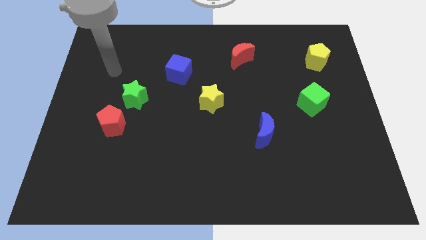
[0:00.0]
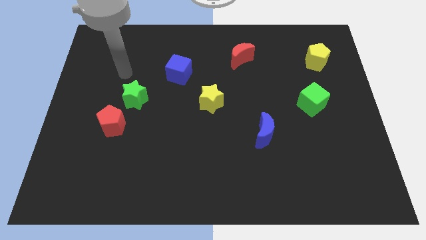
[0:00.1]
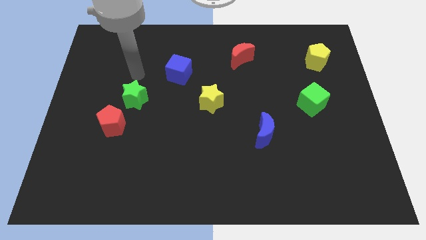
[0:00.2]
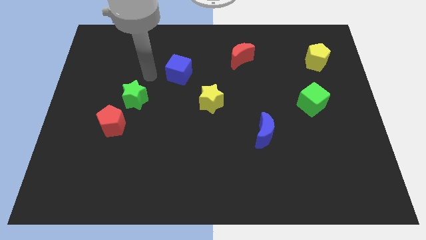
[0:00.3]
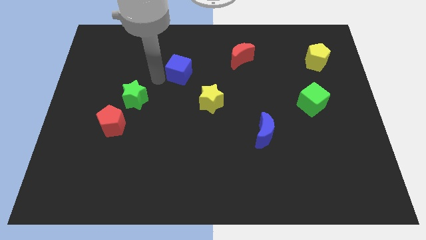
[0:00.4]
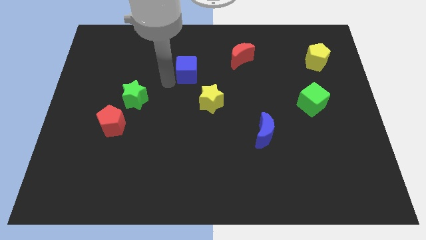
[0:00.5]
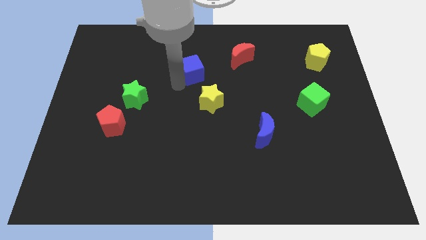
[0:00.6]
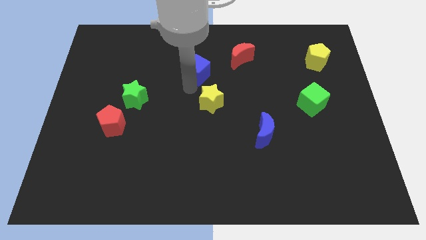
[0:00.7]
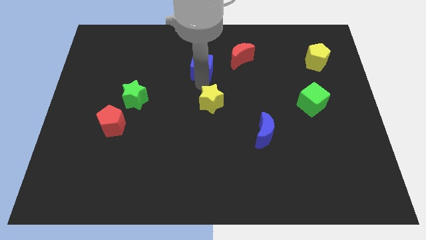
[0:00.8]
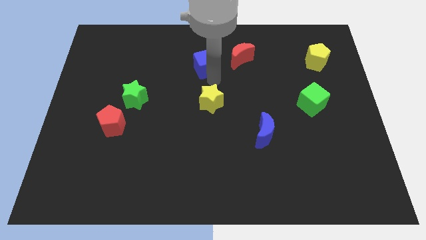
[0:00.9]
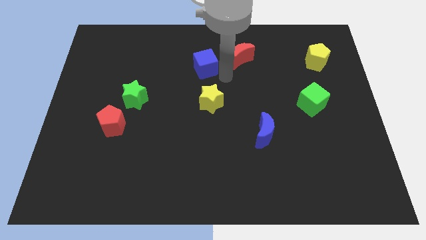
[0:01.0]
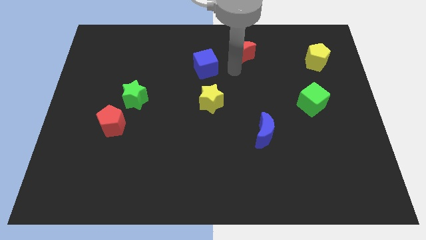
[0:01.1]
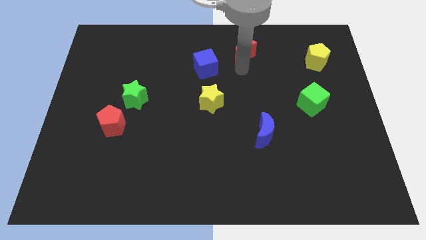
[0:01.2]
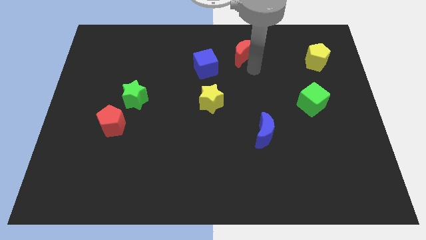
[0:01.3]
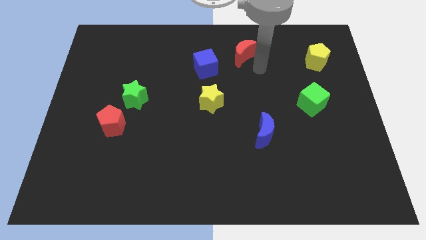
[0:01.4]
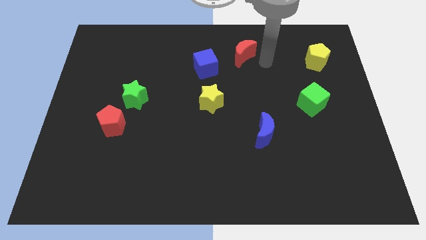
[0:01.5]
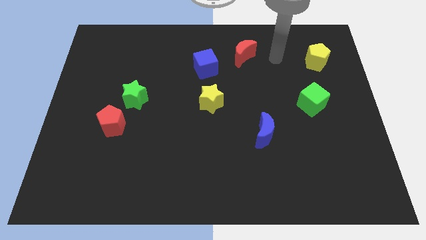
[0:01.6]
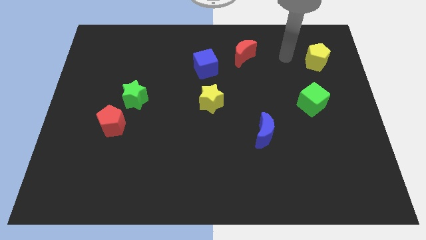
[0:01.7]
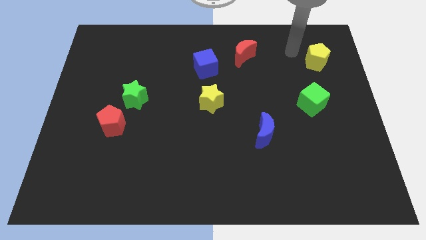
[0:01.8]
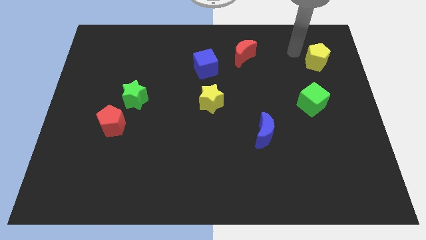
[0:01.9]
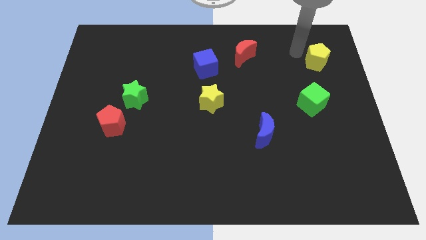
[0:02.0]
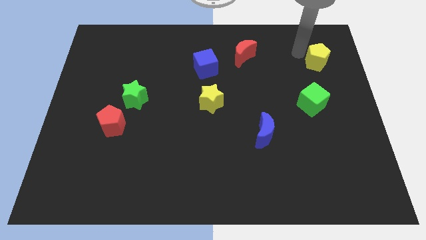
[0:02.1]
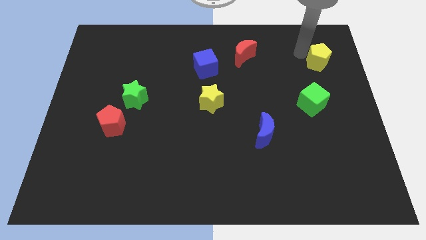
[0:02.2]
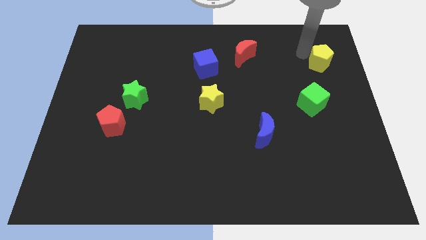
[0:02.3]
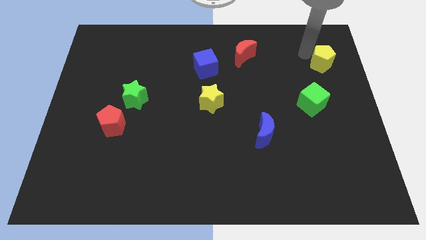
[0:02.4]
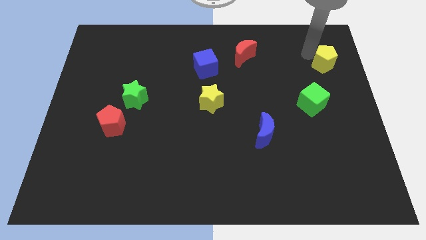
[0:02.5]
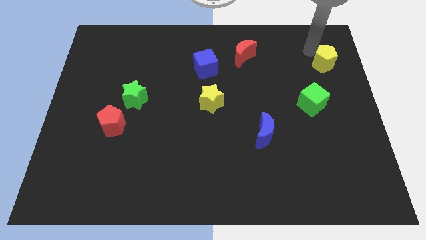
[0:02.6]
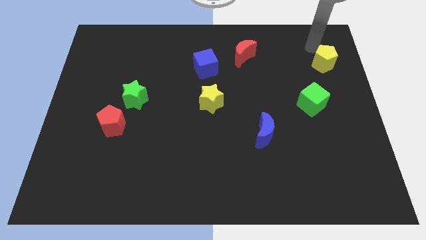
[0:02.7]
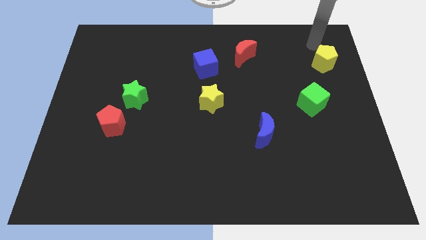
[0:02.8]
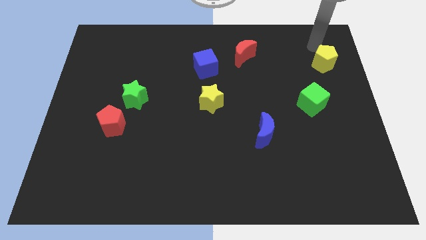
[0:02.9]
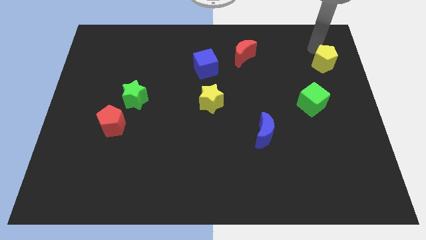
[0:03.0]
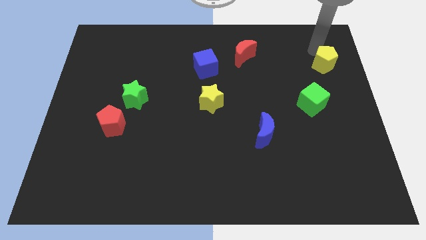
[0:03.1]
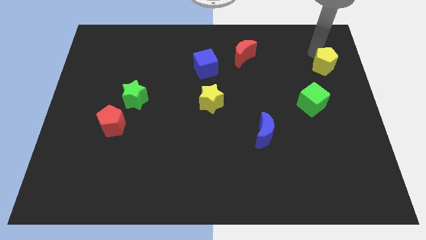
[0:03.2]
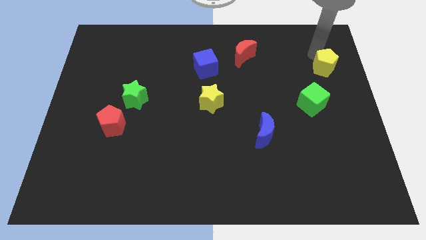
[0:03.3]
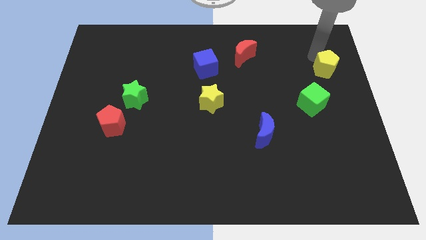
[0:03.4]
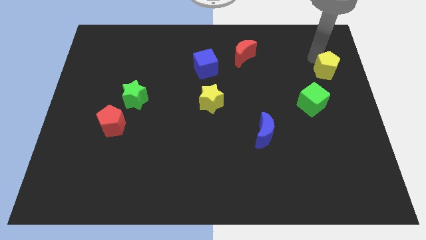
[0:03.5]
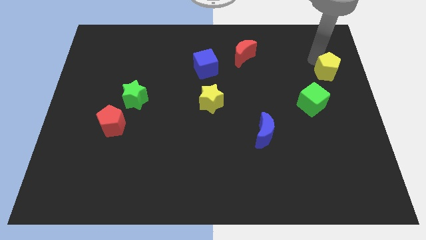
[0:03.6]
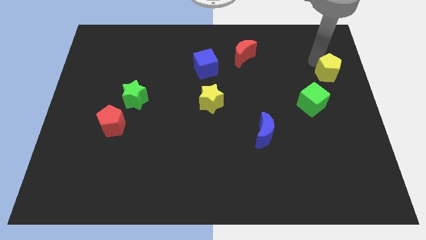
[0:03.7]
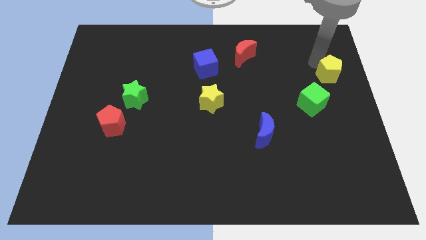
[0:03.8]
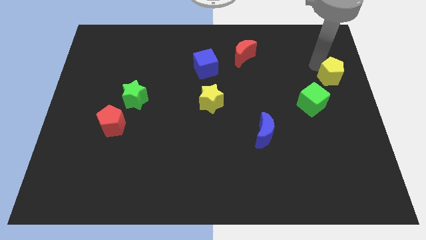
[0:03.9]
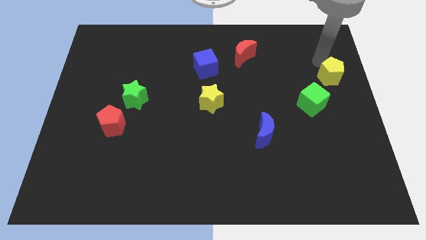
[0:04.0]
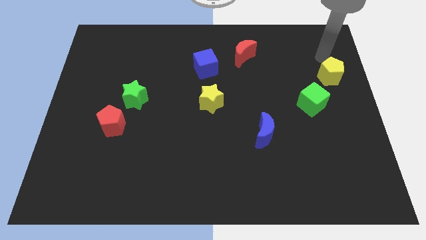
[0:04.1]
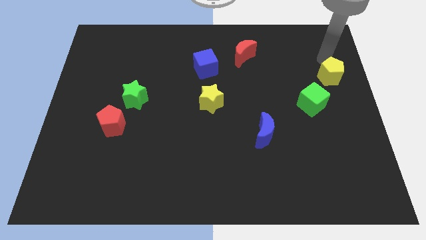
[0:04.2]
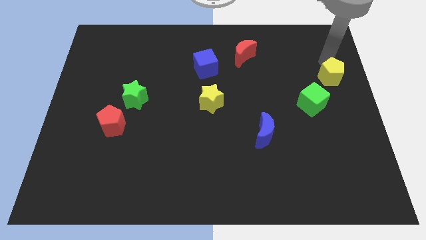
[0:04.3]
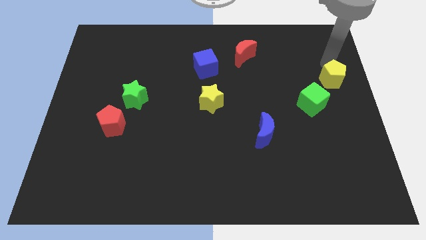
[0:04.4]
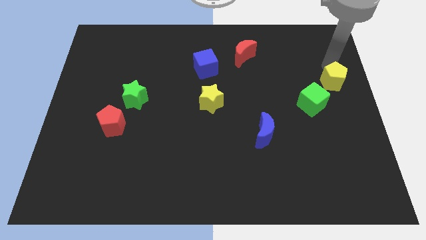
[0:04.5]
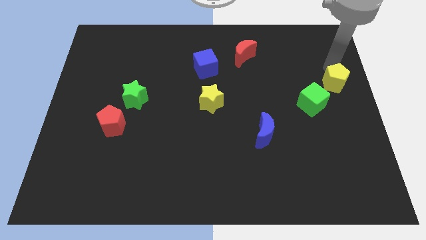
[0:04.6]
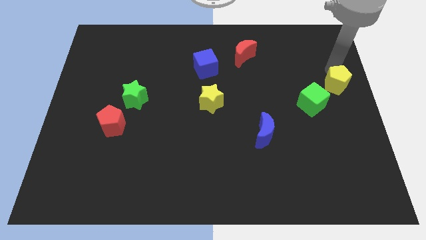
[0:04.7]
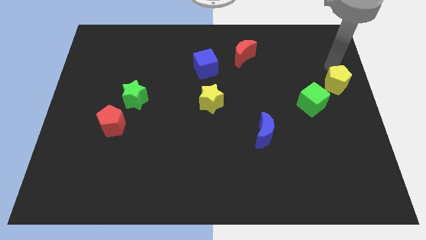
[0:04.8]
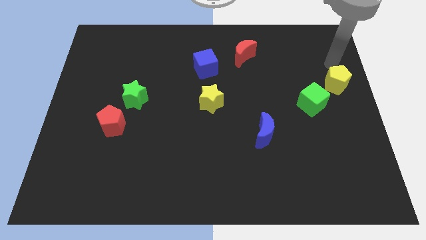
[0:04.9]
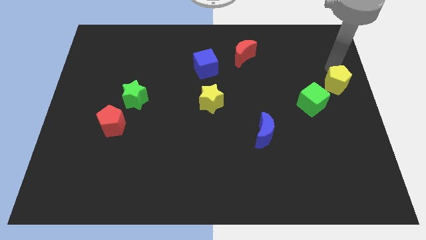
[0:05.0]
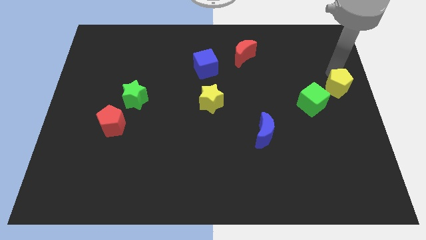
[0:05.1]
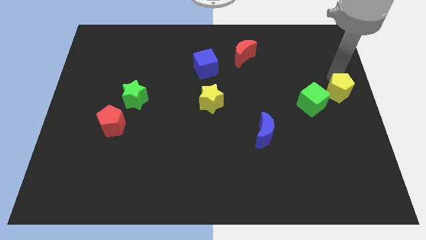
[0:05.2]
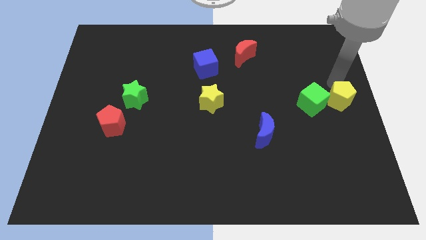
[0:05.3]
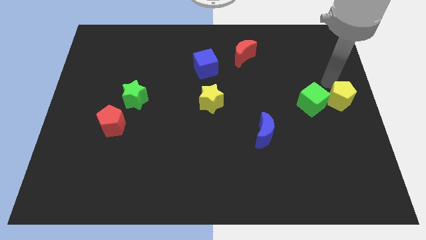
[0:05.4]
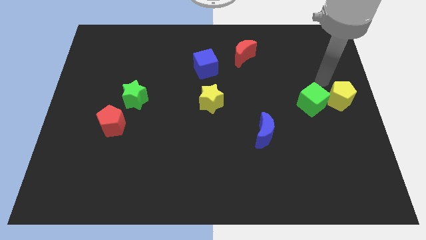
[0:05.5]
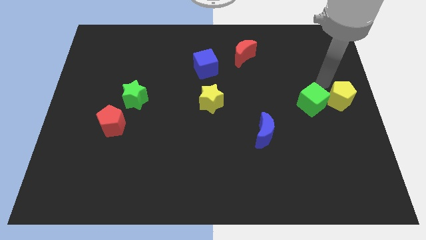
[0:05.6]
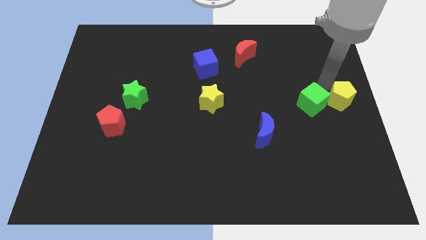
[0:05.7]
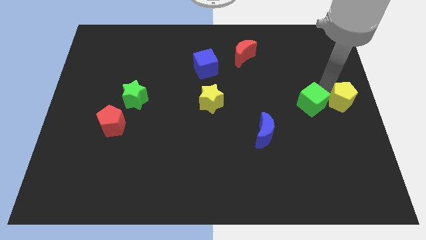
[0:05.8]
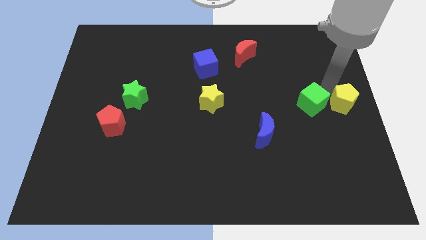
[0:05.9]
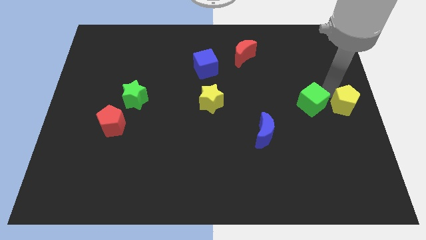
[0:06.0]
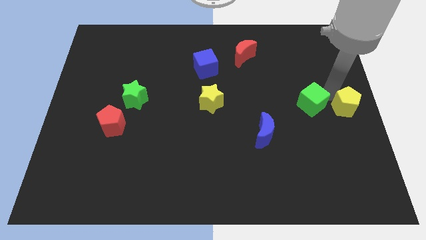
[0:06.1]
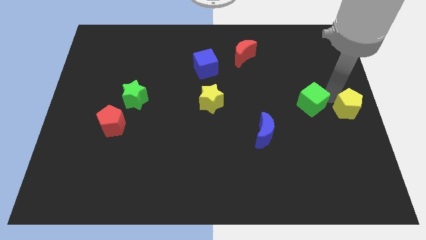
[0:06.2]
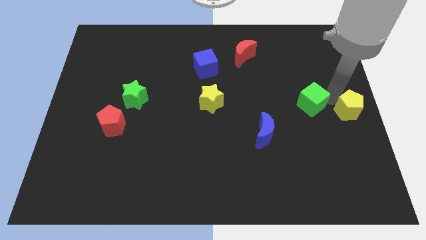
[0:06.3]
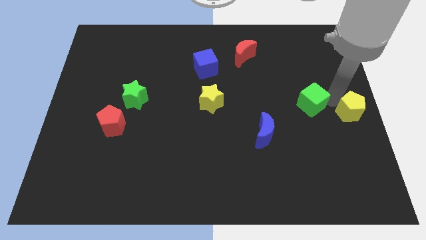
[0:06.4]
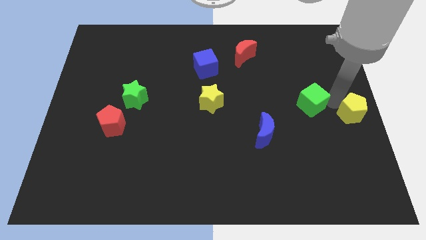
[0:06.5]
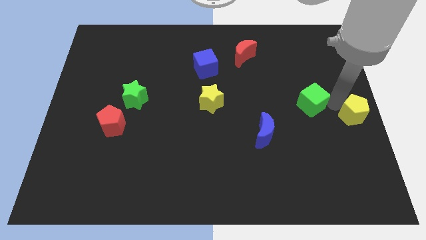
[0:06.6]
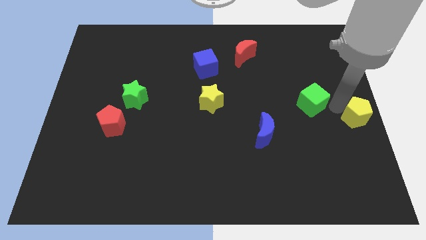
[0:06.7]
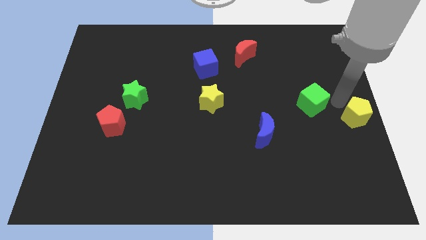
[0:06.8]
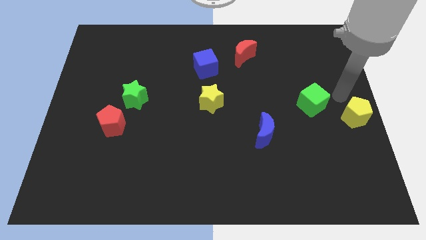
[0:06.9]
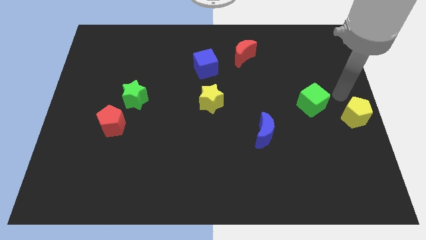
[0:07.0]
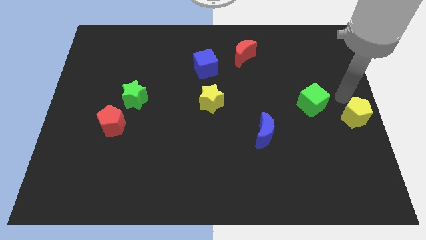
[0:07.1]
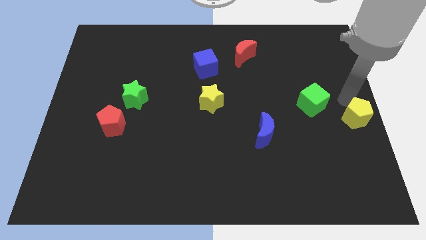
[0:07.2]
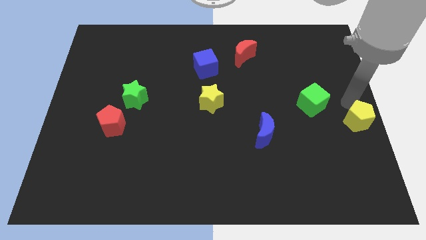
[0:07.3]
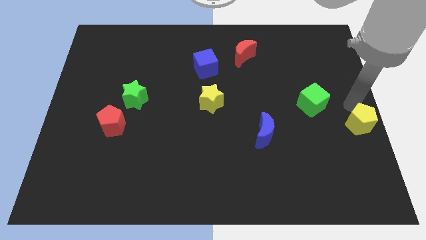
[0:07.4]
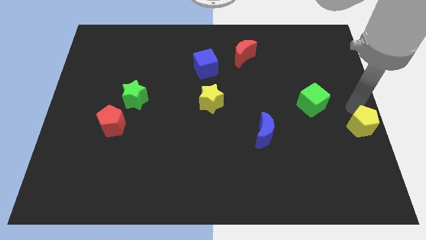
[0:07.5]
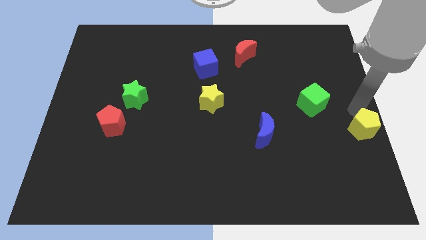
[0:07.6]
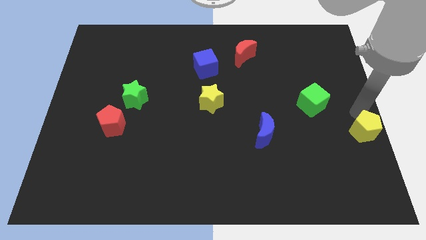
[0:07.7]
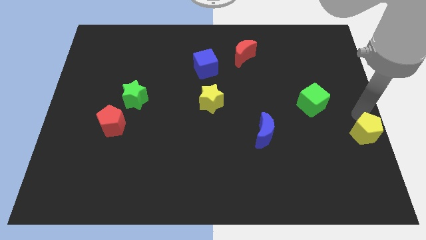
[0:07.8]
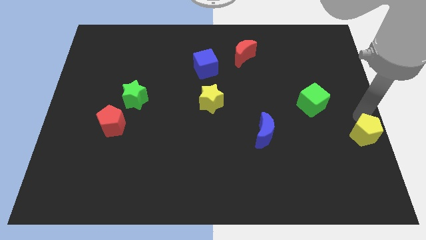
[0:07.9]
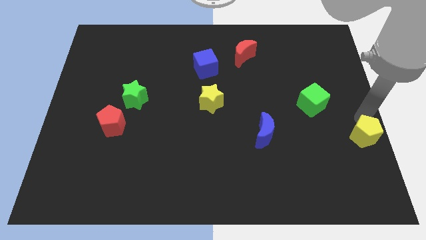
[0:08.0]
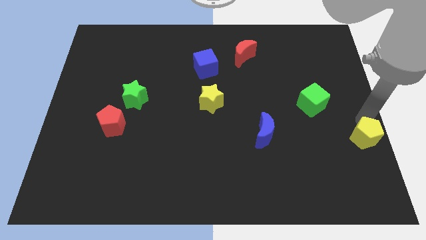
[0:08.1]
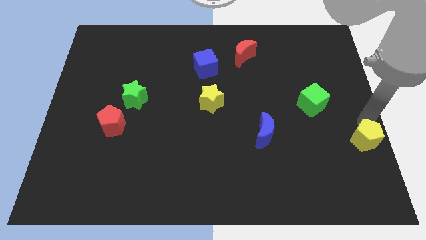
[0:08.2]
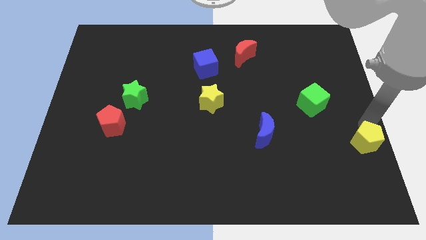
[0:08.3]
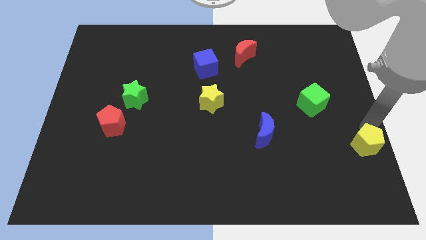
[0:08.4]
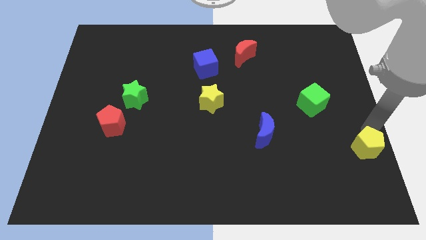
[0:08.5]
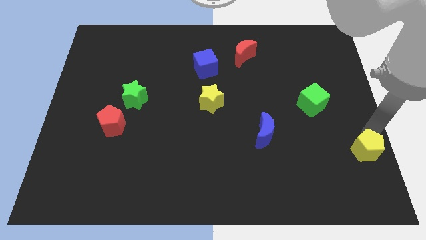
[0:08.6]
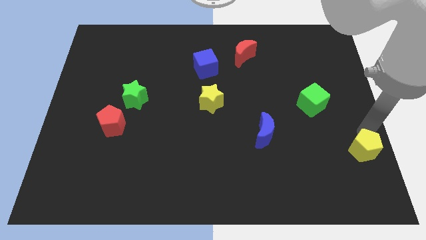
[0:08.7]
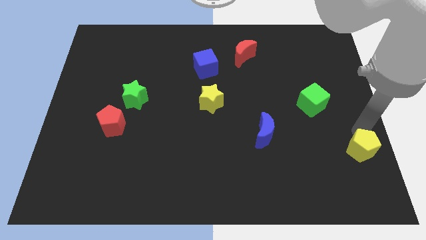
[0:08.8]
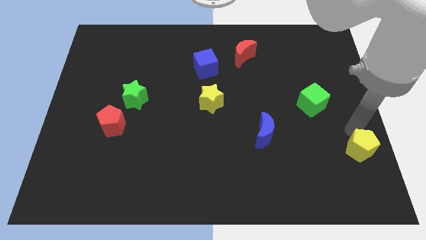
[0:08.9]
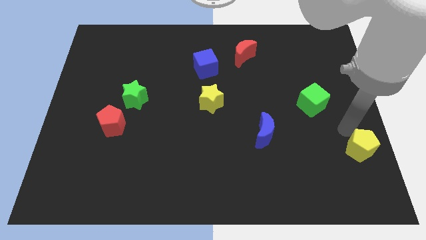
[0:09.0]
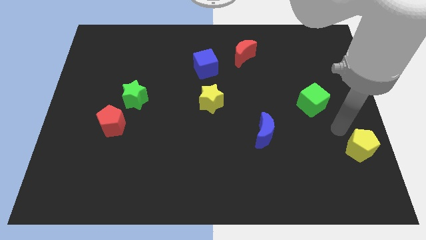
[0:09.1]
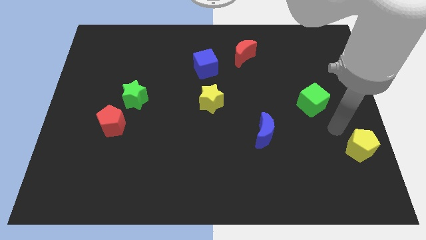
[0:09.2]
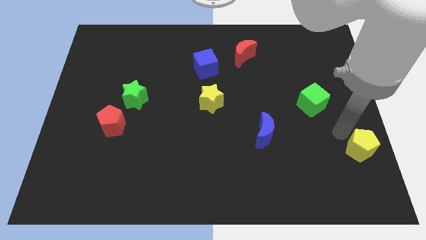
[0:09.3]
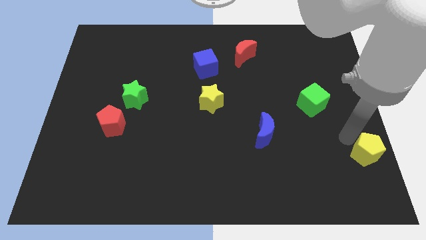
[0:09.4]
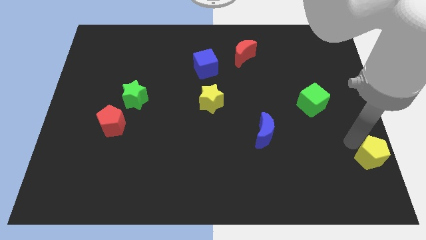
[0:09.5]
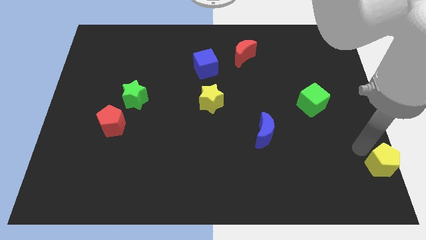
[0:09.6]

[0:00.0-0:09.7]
move the yellow pentagon to the lower right corner
